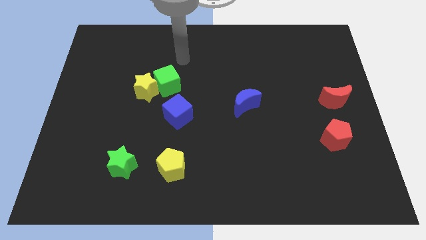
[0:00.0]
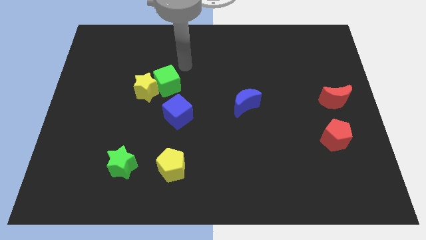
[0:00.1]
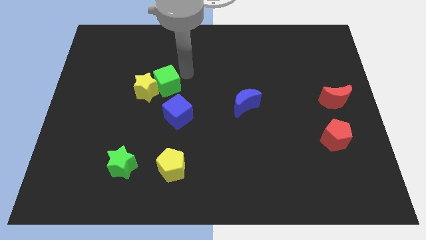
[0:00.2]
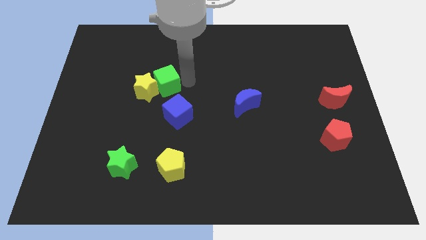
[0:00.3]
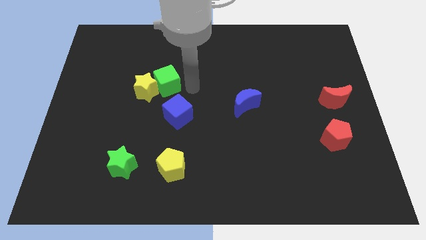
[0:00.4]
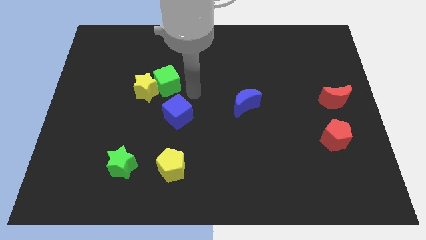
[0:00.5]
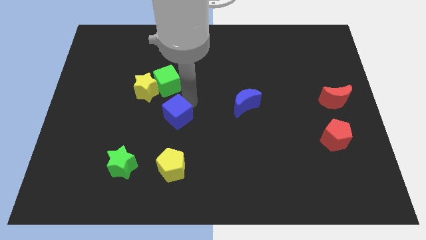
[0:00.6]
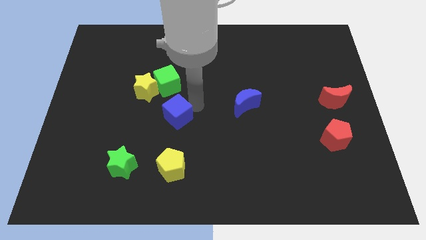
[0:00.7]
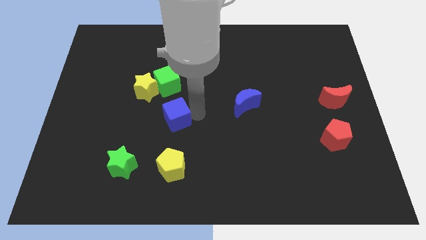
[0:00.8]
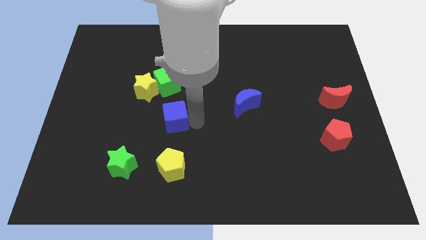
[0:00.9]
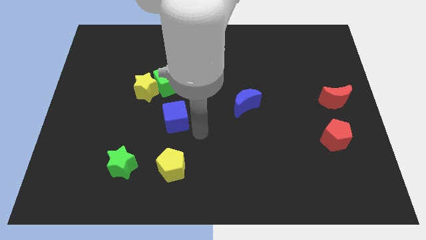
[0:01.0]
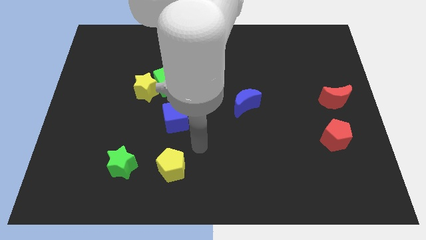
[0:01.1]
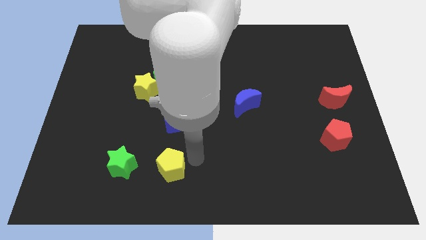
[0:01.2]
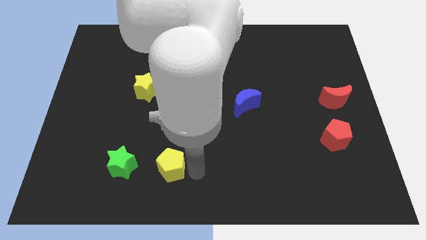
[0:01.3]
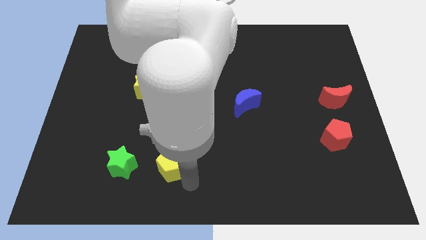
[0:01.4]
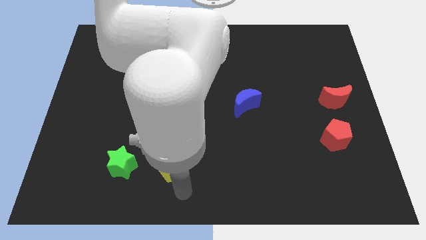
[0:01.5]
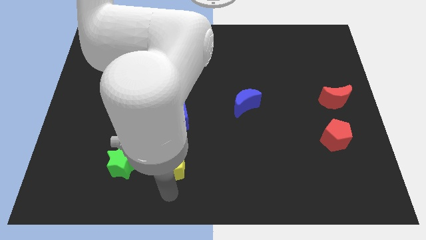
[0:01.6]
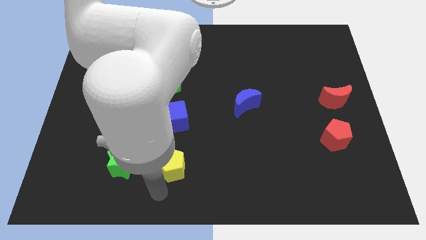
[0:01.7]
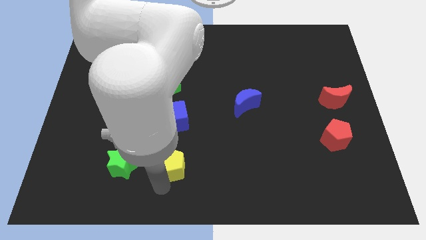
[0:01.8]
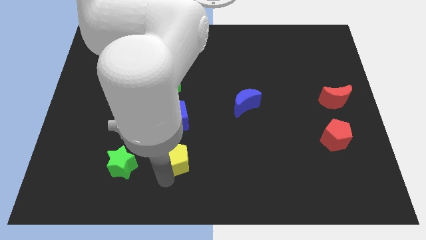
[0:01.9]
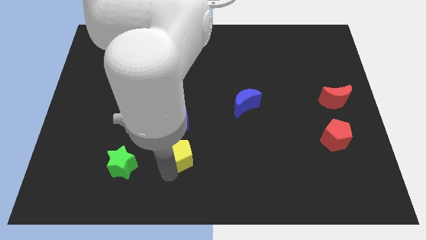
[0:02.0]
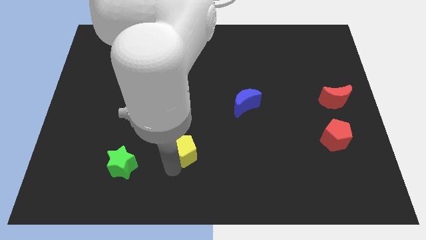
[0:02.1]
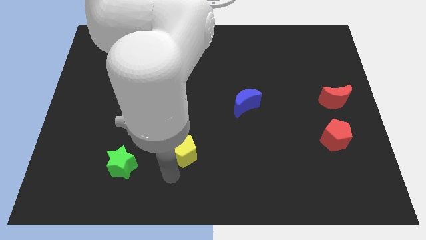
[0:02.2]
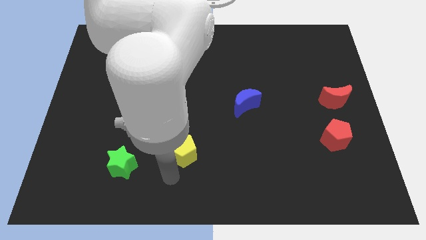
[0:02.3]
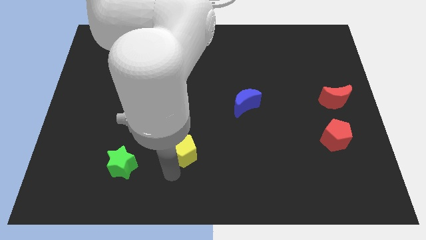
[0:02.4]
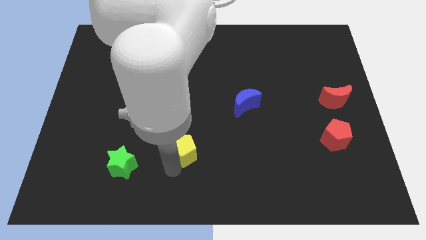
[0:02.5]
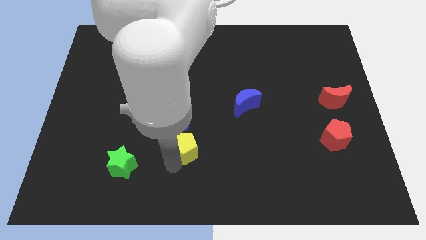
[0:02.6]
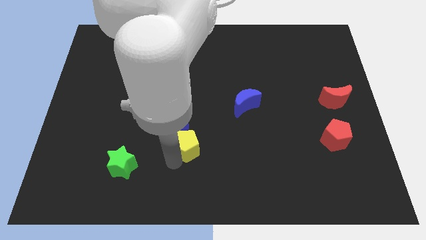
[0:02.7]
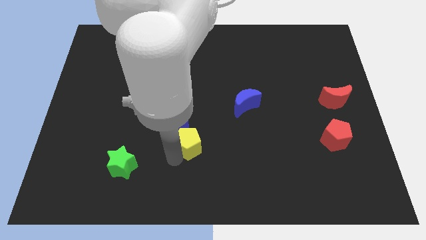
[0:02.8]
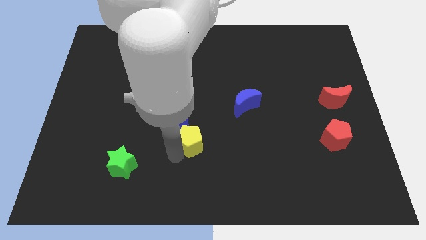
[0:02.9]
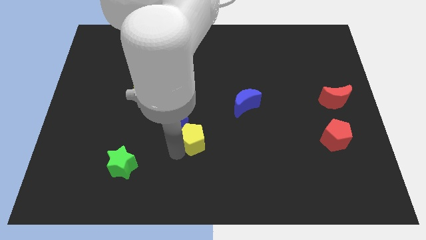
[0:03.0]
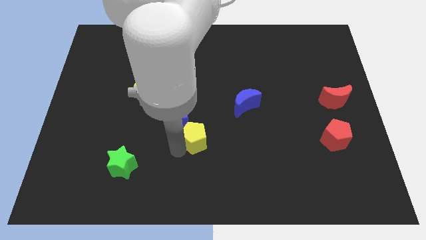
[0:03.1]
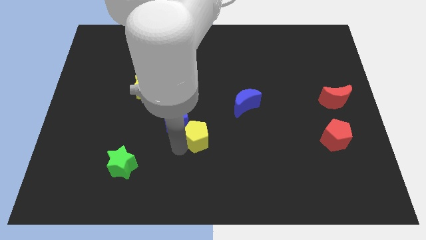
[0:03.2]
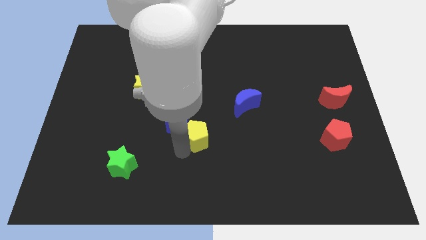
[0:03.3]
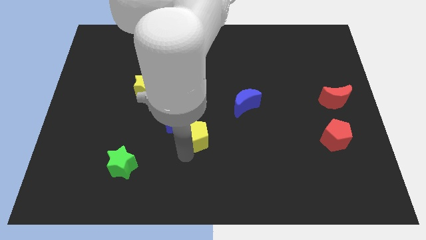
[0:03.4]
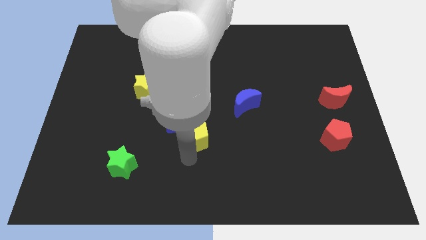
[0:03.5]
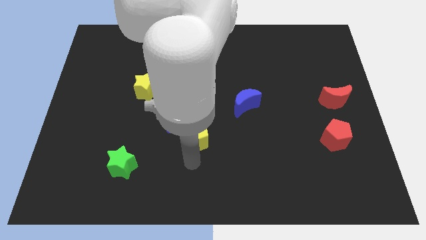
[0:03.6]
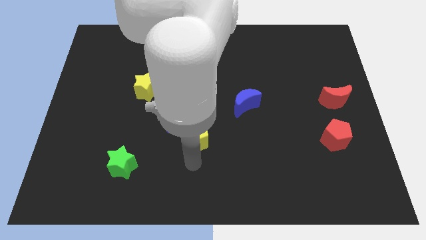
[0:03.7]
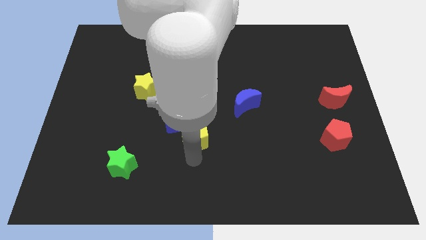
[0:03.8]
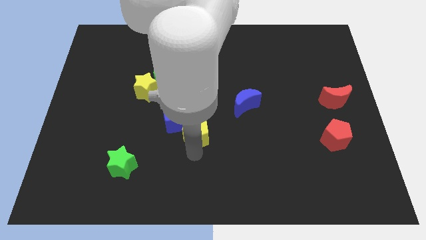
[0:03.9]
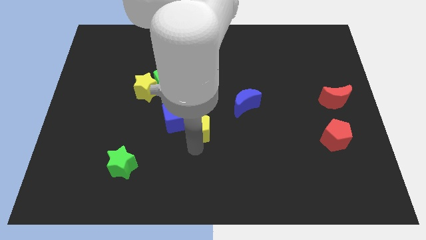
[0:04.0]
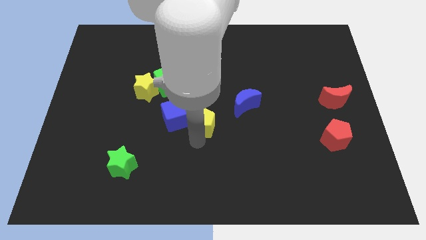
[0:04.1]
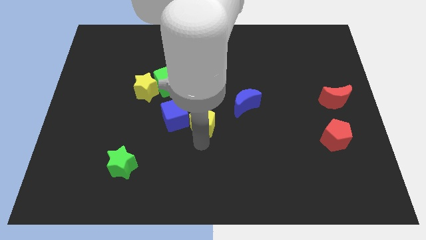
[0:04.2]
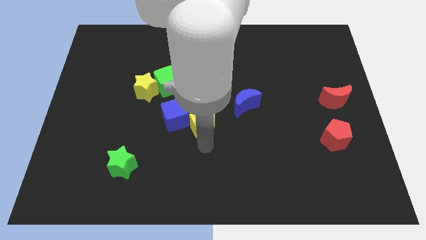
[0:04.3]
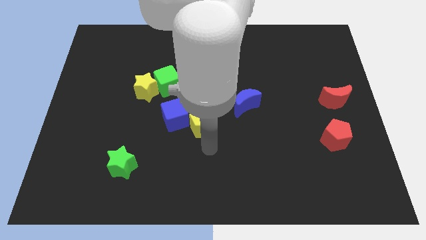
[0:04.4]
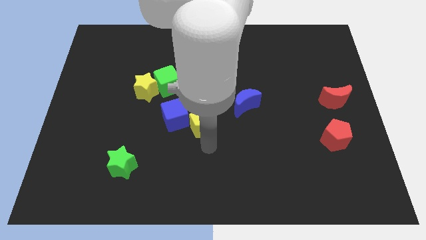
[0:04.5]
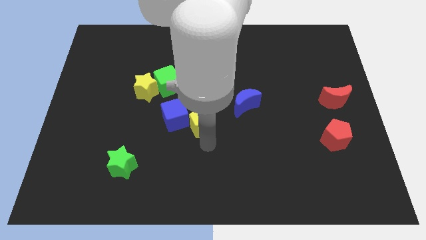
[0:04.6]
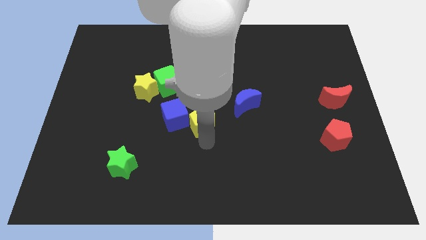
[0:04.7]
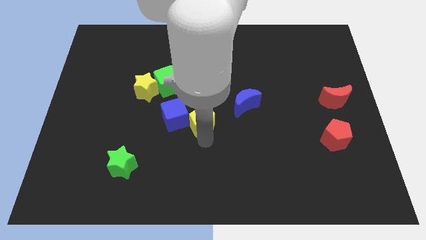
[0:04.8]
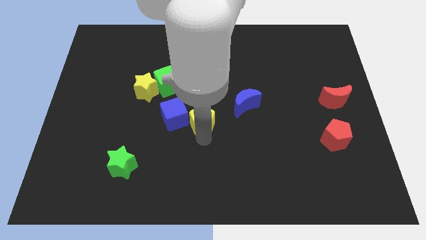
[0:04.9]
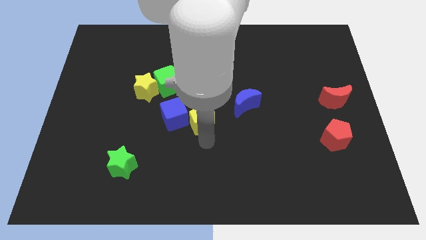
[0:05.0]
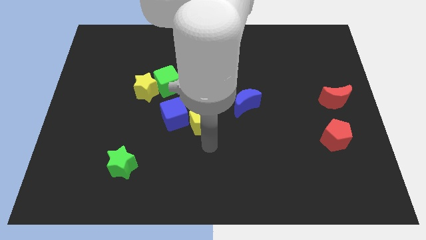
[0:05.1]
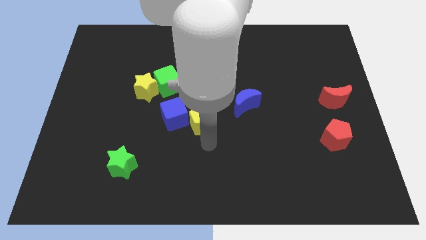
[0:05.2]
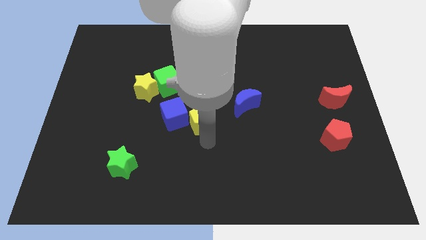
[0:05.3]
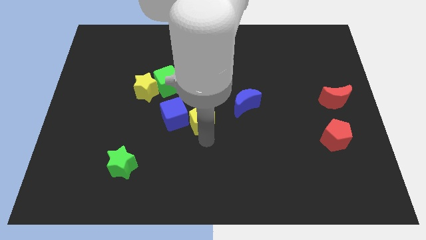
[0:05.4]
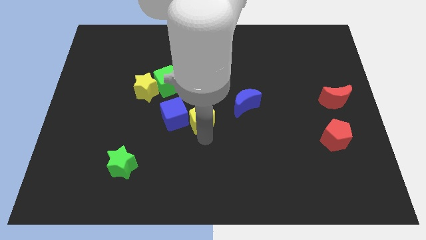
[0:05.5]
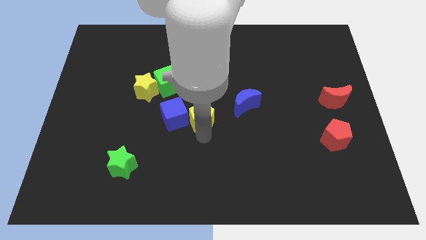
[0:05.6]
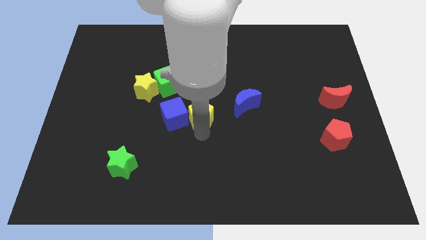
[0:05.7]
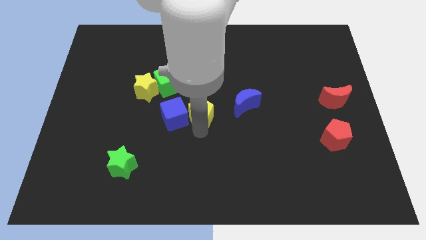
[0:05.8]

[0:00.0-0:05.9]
push the yellow pentagon to the bottom right of the green cube
